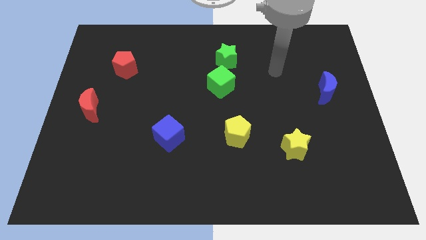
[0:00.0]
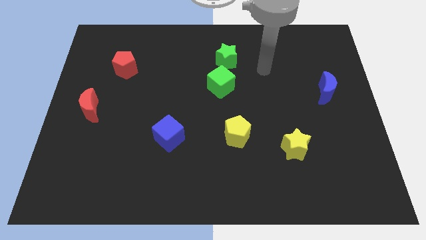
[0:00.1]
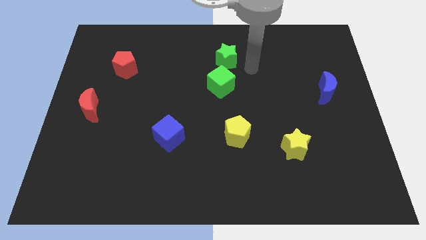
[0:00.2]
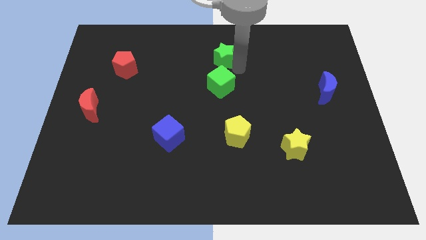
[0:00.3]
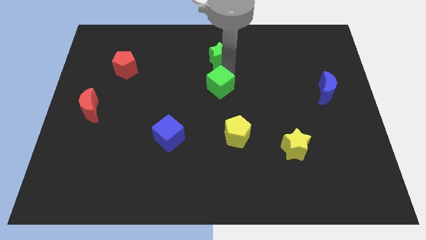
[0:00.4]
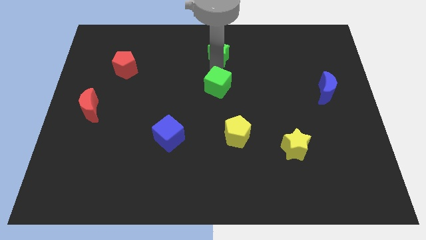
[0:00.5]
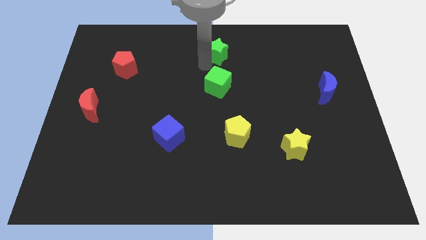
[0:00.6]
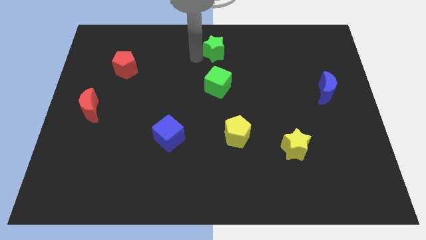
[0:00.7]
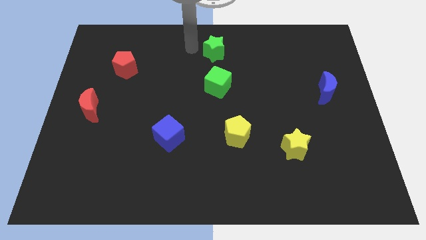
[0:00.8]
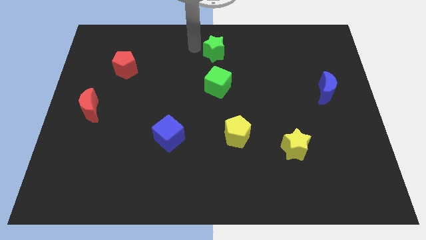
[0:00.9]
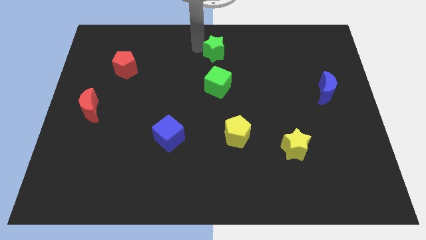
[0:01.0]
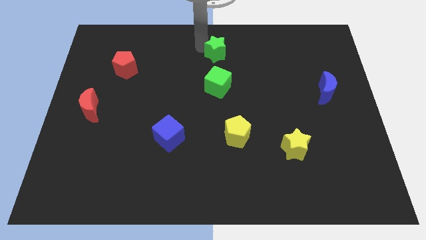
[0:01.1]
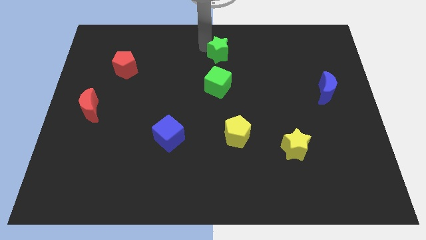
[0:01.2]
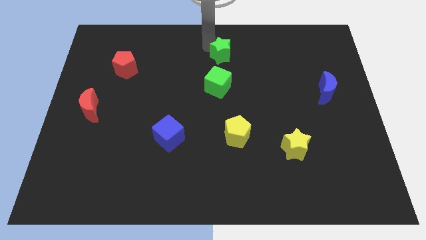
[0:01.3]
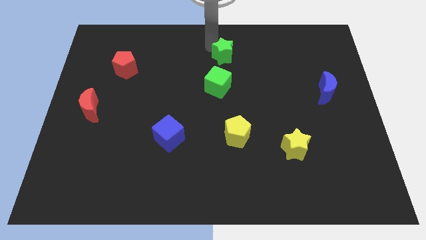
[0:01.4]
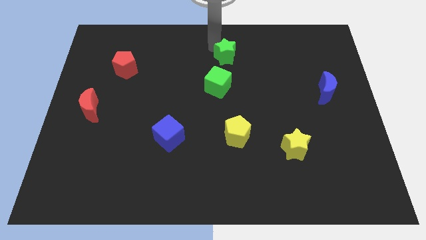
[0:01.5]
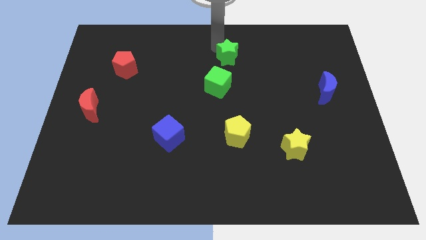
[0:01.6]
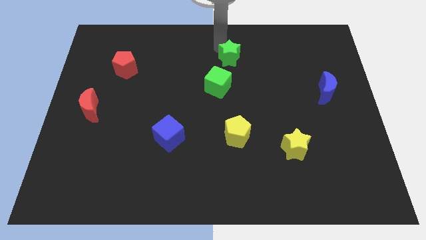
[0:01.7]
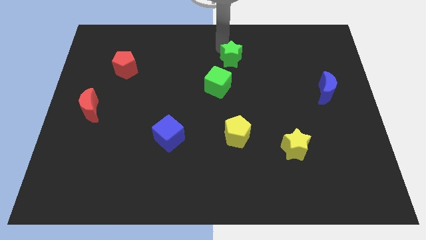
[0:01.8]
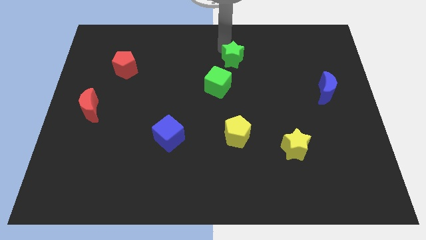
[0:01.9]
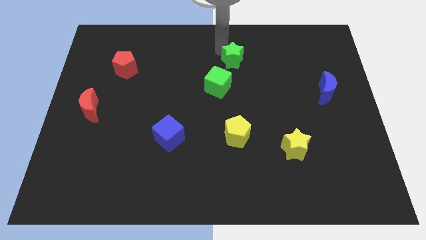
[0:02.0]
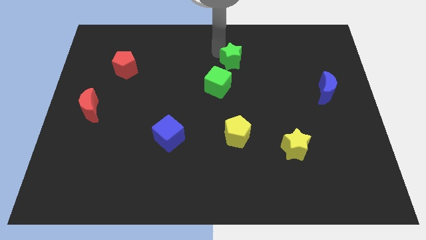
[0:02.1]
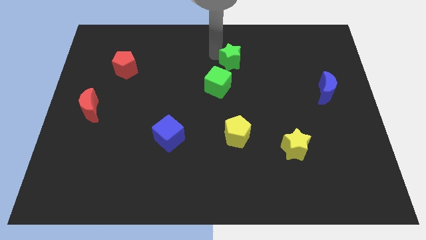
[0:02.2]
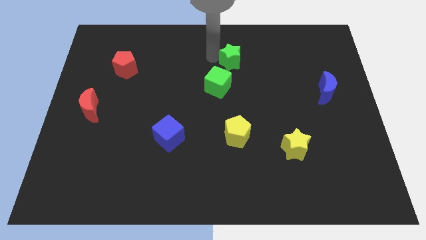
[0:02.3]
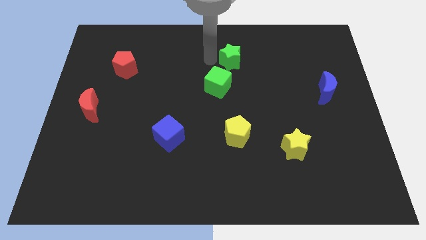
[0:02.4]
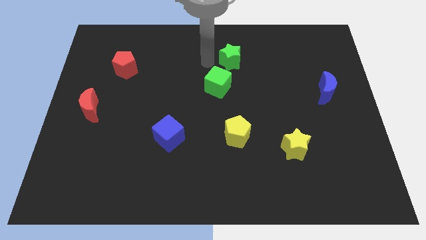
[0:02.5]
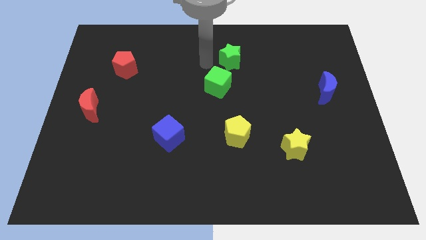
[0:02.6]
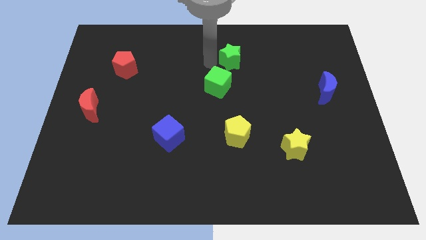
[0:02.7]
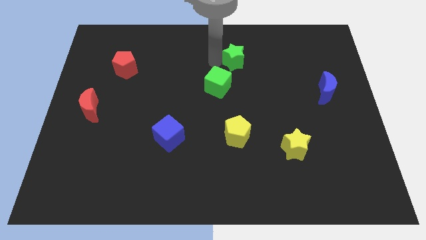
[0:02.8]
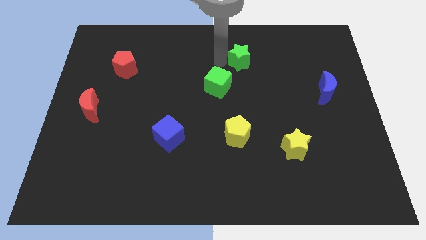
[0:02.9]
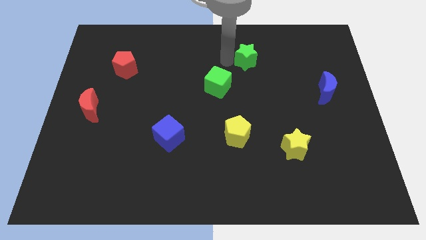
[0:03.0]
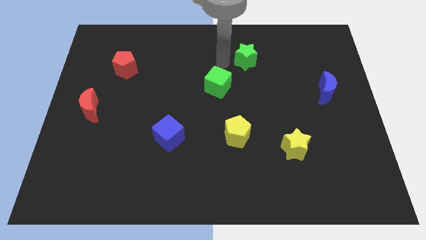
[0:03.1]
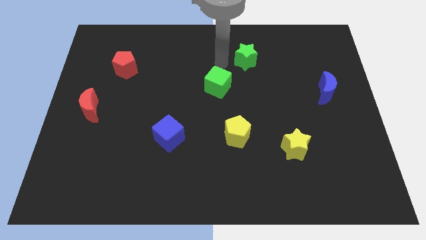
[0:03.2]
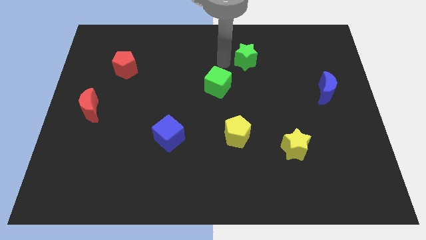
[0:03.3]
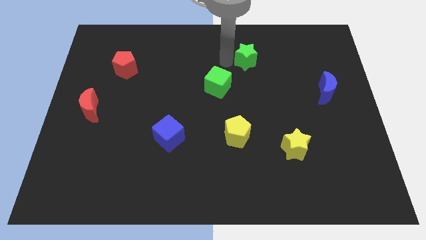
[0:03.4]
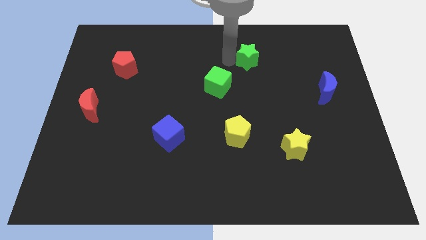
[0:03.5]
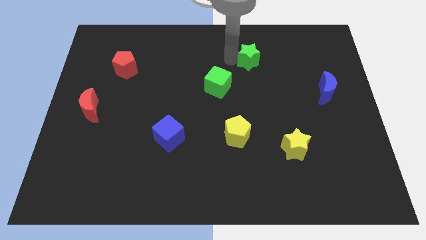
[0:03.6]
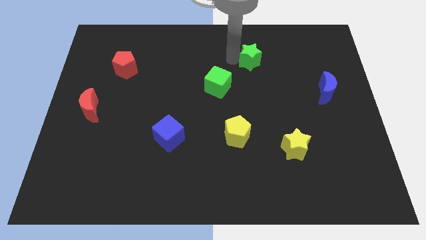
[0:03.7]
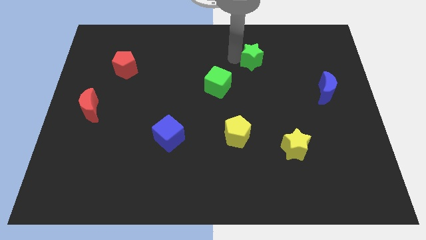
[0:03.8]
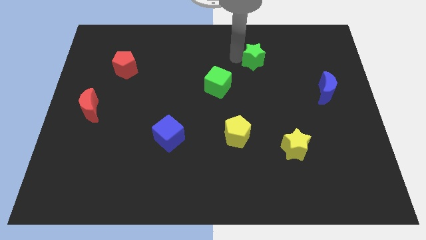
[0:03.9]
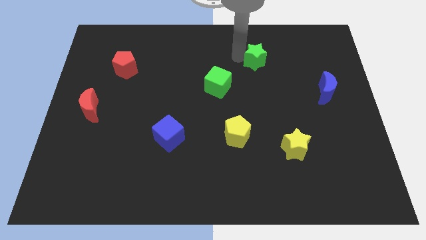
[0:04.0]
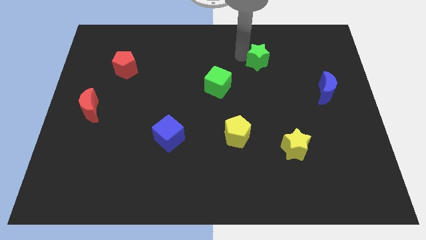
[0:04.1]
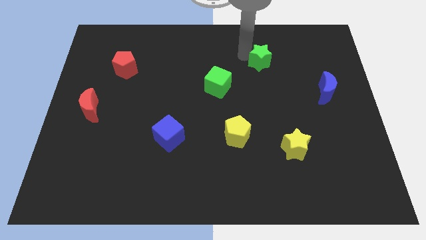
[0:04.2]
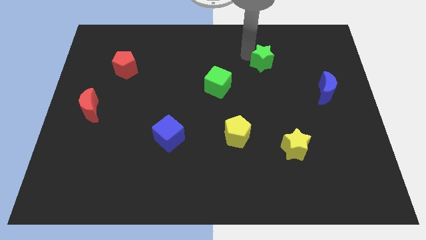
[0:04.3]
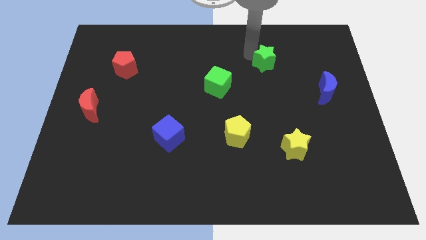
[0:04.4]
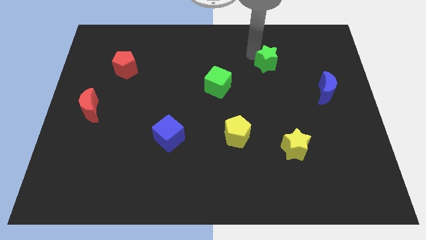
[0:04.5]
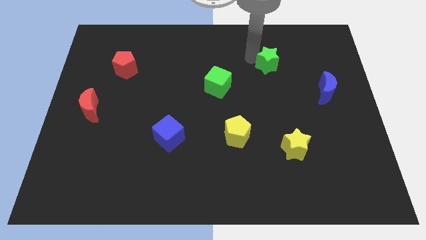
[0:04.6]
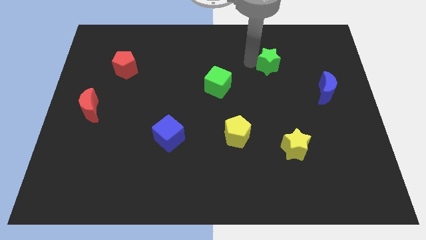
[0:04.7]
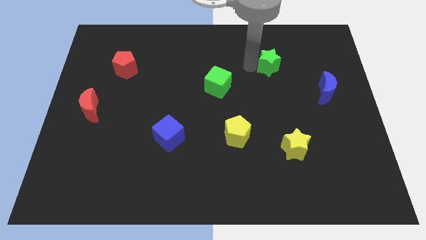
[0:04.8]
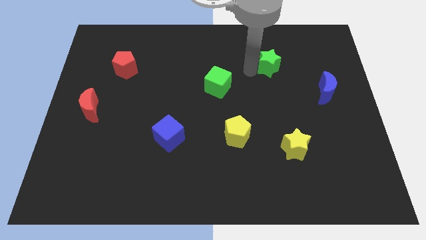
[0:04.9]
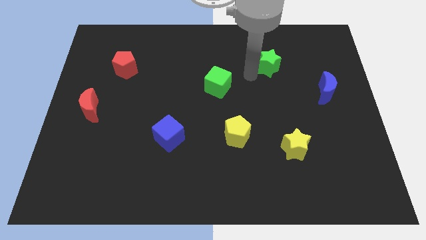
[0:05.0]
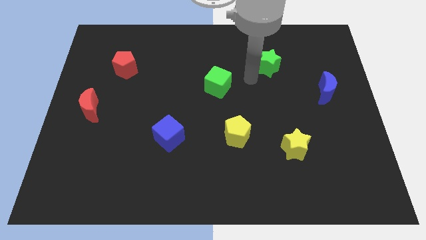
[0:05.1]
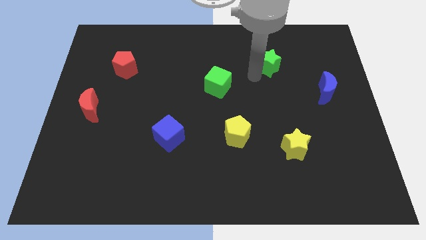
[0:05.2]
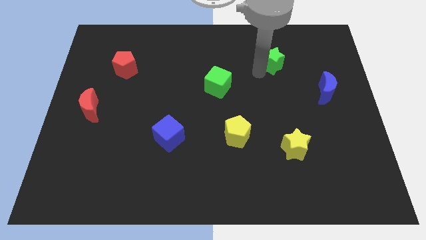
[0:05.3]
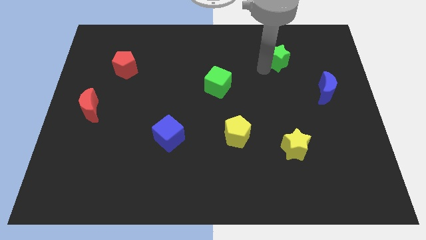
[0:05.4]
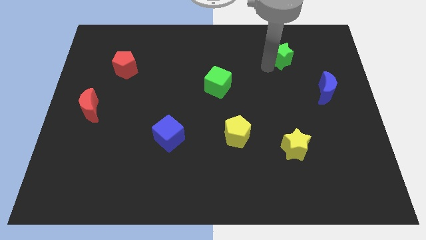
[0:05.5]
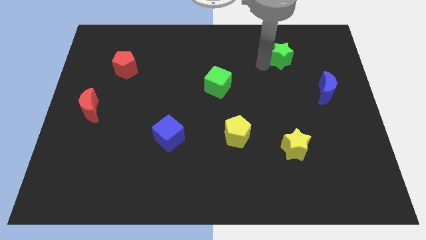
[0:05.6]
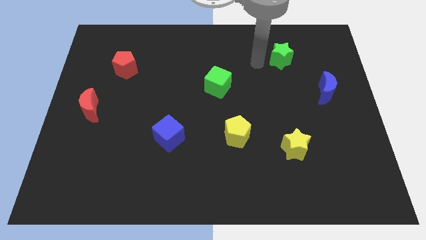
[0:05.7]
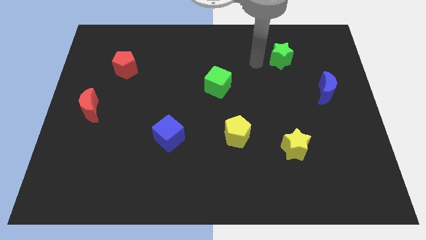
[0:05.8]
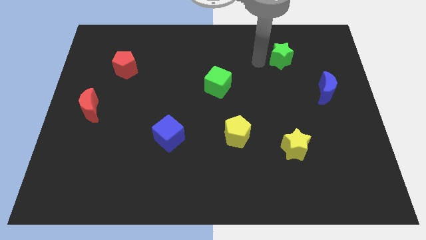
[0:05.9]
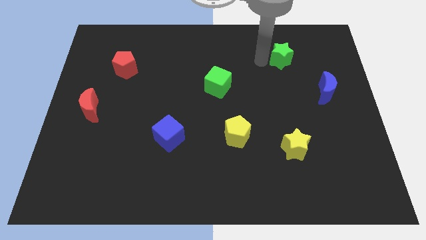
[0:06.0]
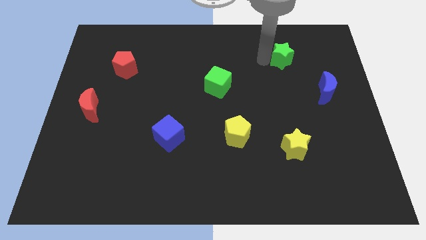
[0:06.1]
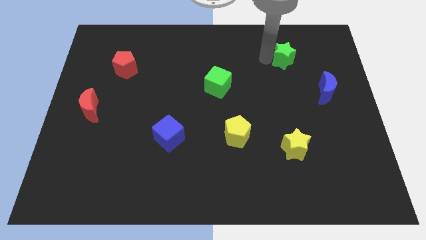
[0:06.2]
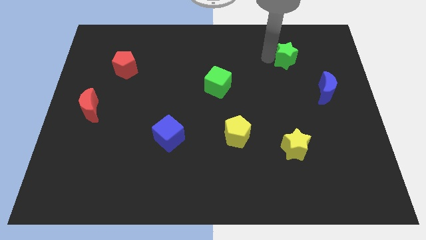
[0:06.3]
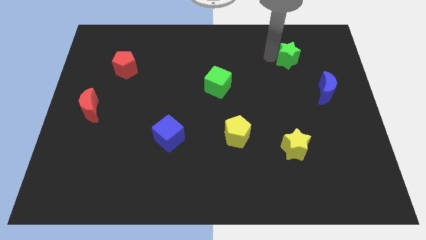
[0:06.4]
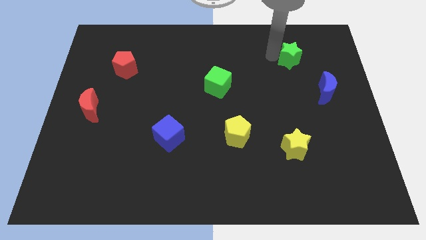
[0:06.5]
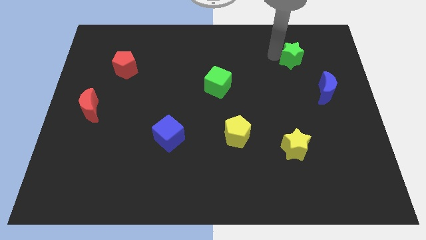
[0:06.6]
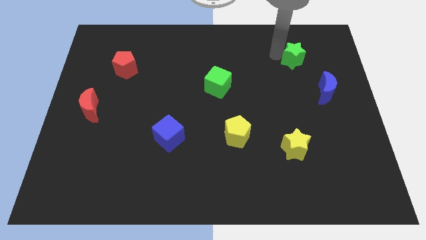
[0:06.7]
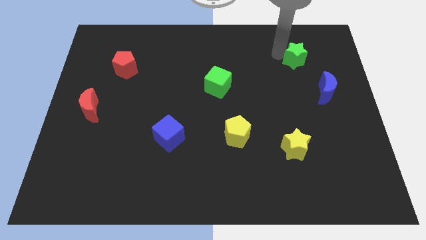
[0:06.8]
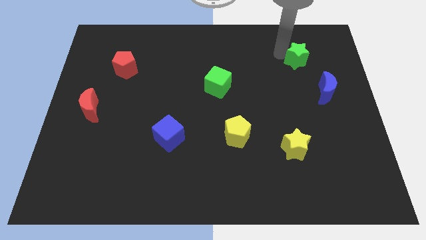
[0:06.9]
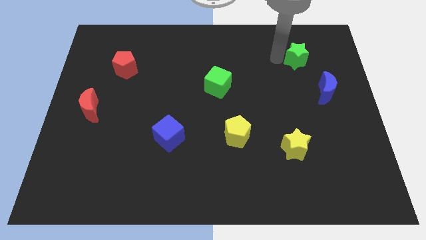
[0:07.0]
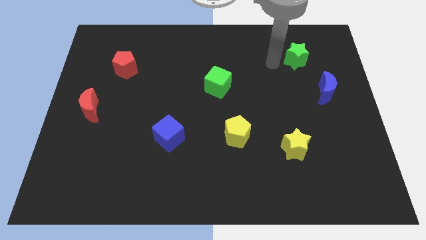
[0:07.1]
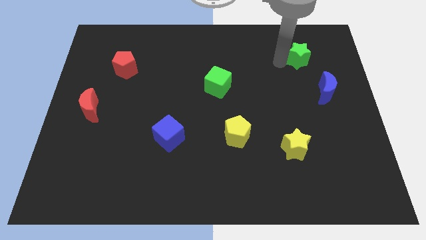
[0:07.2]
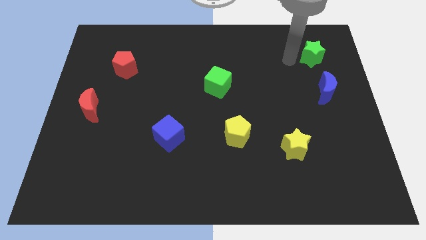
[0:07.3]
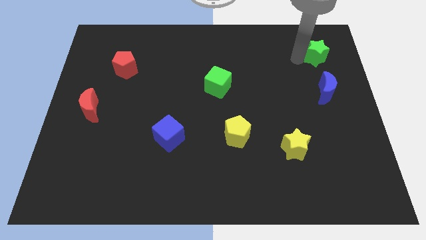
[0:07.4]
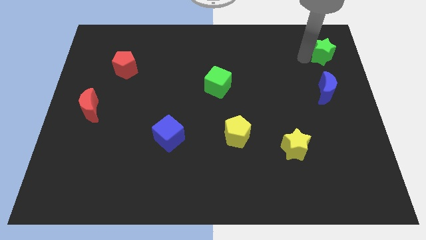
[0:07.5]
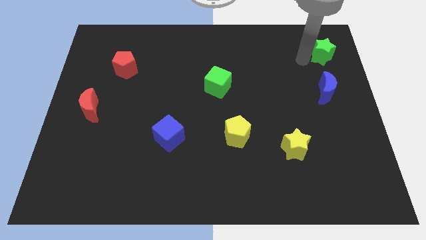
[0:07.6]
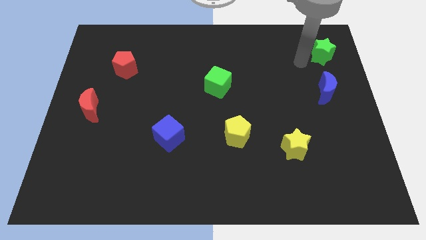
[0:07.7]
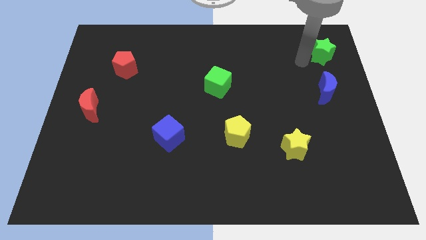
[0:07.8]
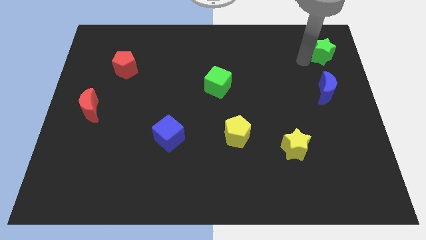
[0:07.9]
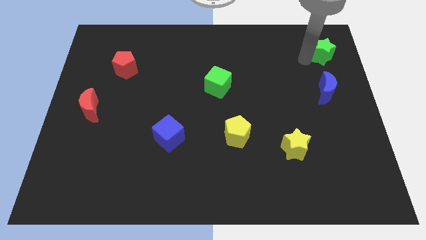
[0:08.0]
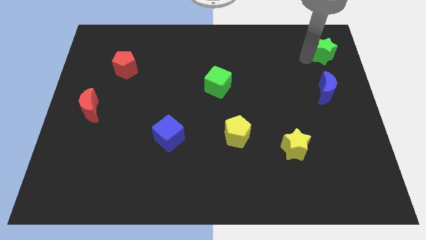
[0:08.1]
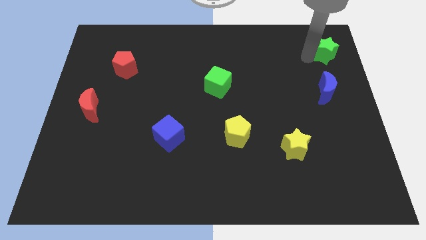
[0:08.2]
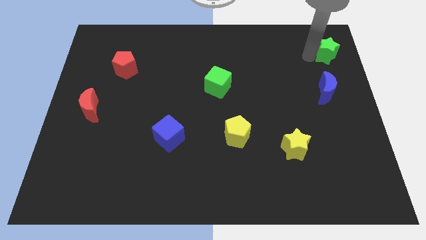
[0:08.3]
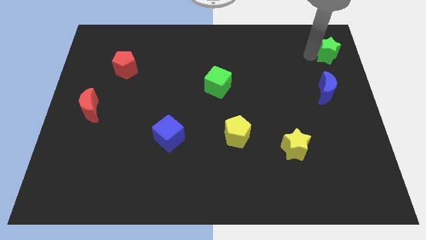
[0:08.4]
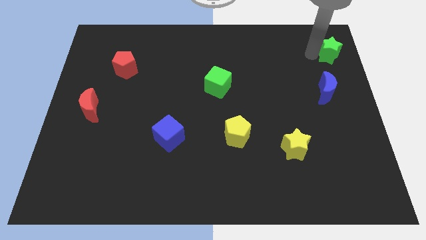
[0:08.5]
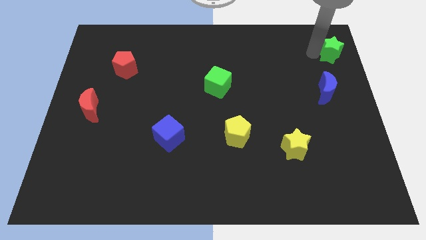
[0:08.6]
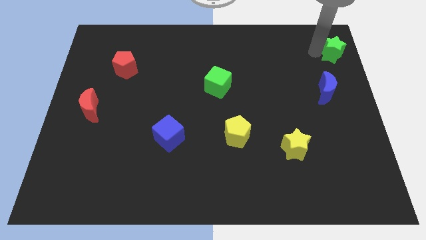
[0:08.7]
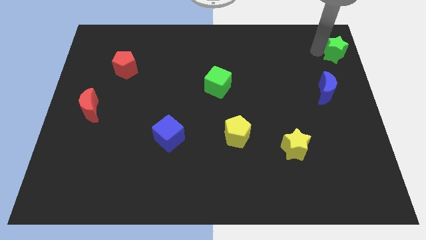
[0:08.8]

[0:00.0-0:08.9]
push the green star to the upper right corner
